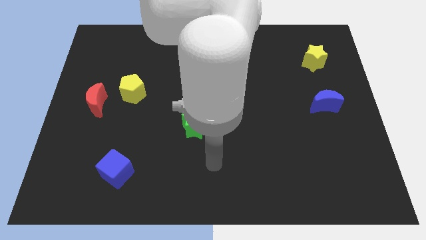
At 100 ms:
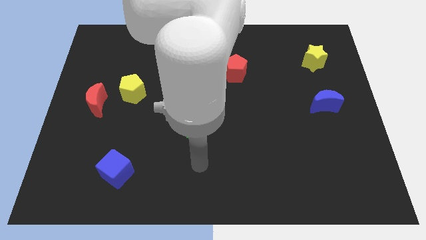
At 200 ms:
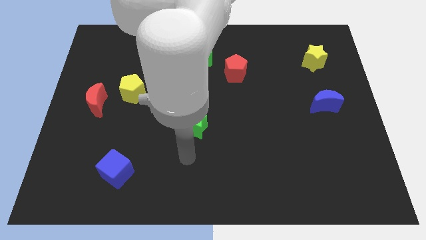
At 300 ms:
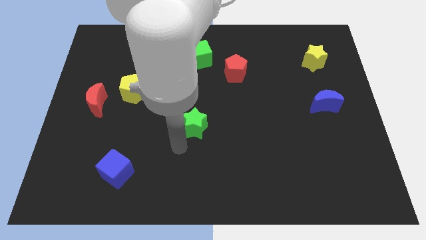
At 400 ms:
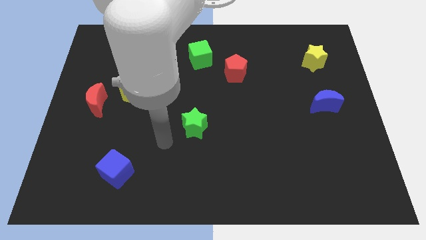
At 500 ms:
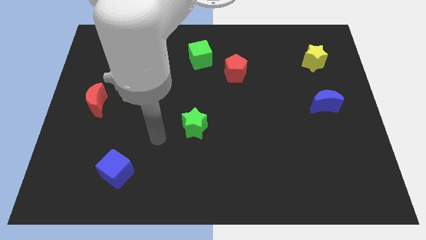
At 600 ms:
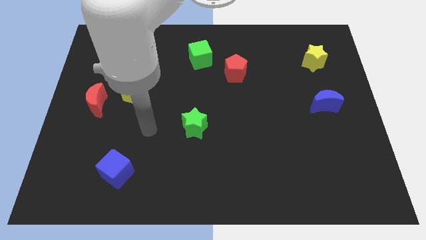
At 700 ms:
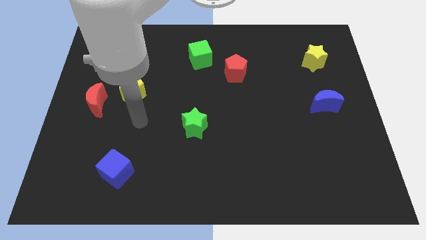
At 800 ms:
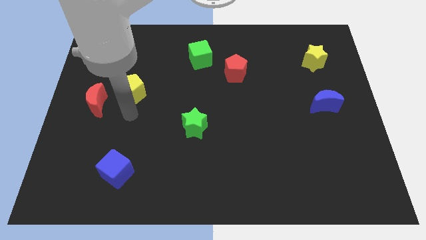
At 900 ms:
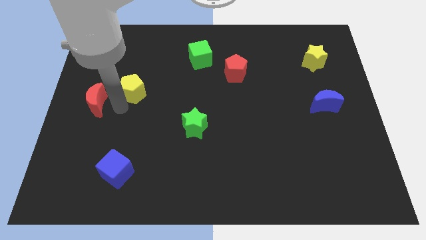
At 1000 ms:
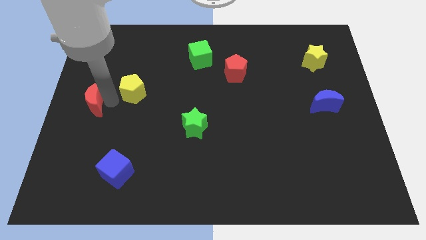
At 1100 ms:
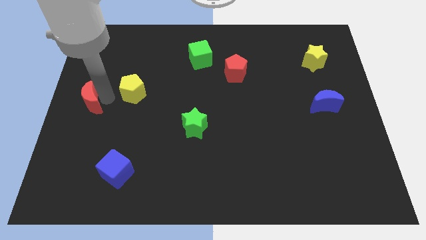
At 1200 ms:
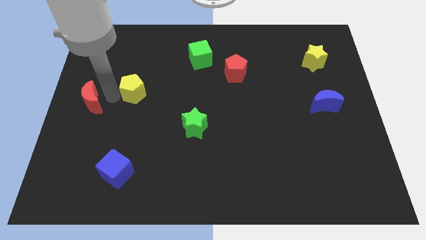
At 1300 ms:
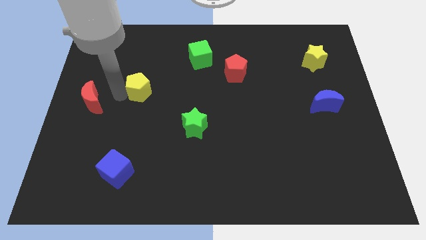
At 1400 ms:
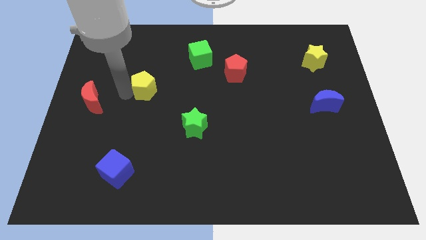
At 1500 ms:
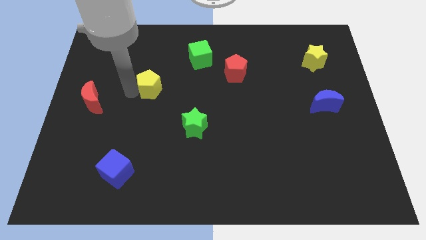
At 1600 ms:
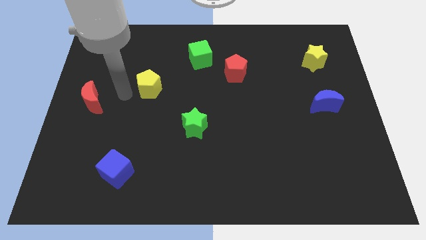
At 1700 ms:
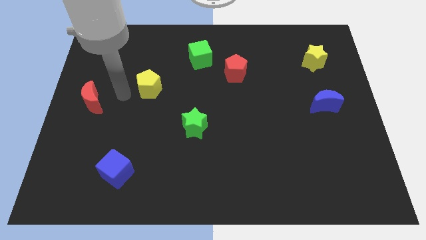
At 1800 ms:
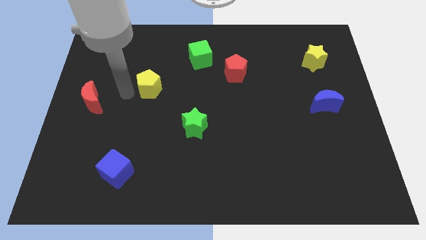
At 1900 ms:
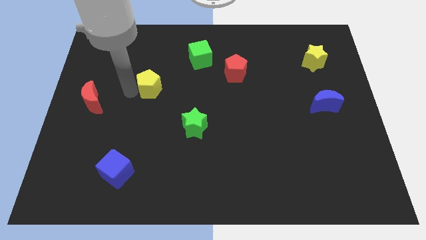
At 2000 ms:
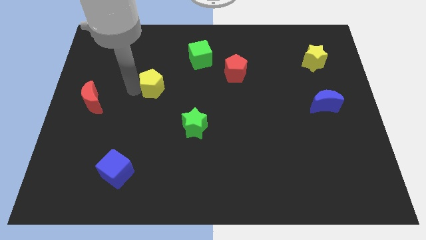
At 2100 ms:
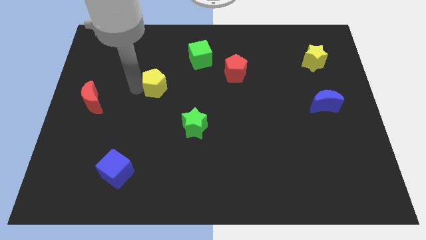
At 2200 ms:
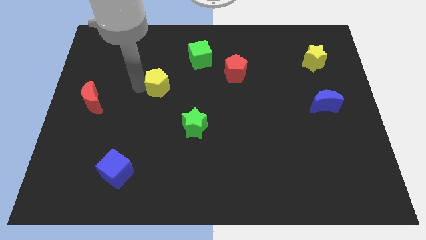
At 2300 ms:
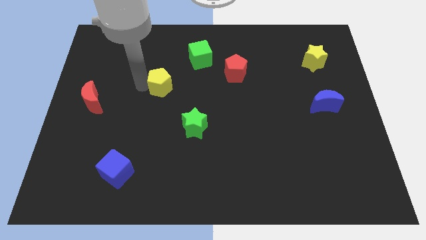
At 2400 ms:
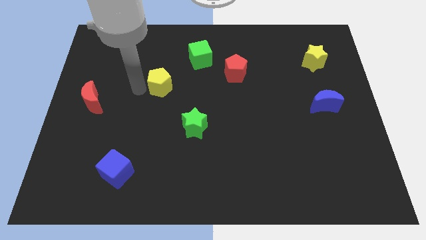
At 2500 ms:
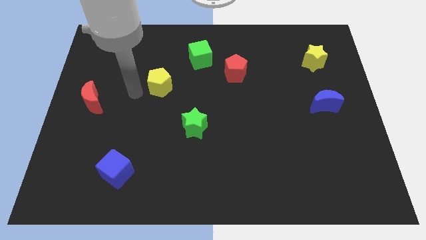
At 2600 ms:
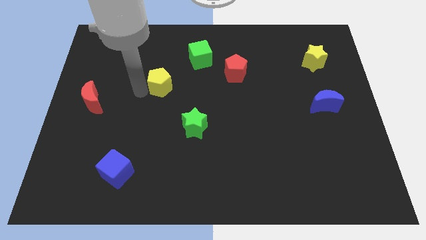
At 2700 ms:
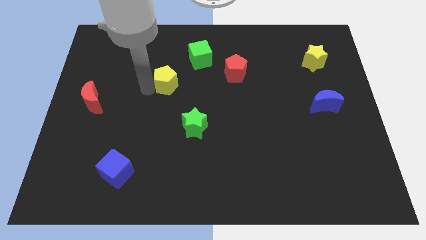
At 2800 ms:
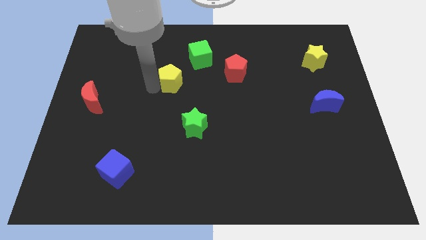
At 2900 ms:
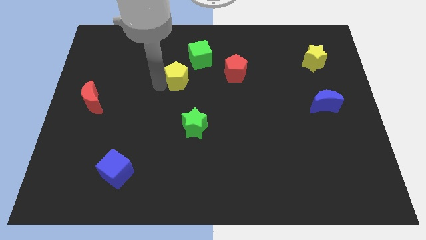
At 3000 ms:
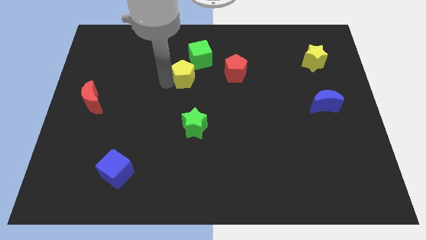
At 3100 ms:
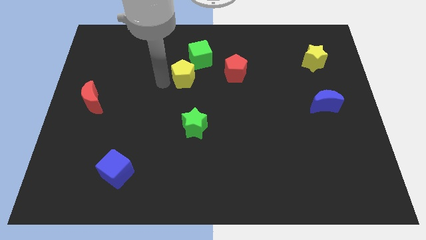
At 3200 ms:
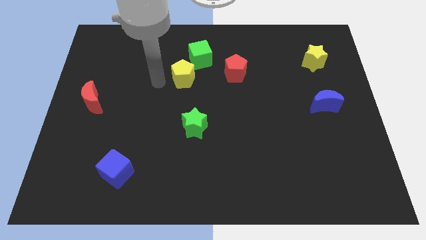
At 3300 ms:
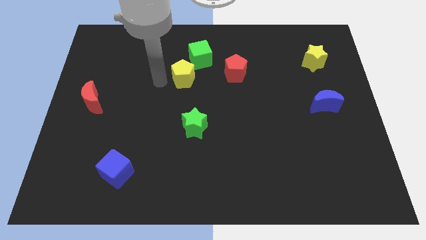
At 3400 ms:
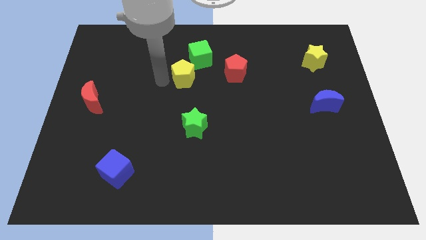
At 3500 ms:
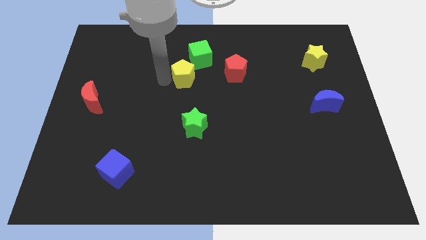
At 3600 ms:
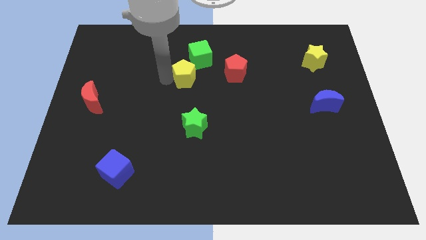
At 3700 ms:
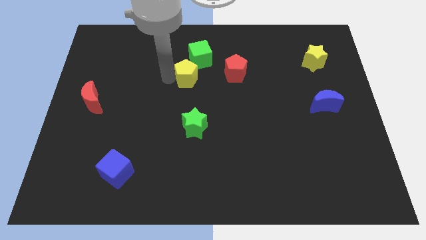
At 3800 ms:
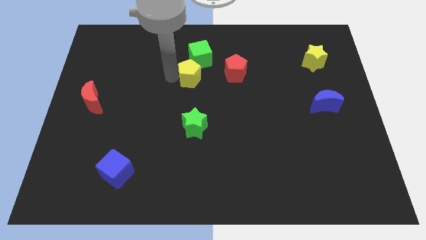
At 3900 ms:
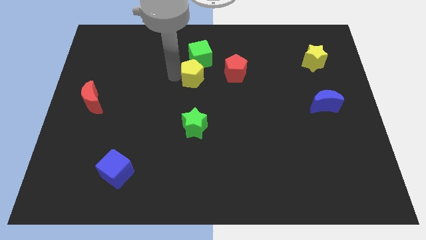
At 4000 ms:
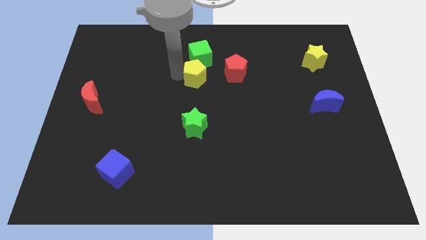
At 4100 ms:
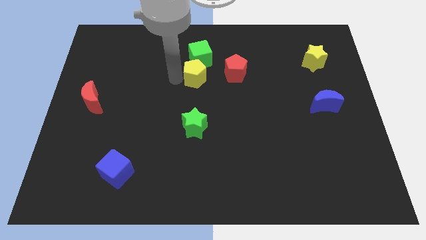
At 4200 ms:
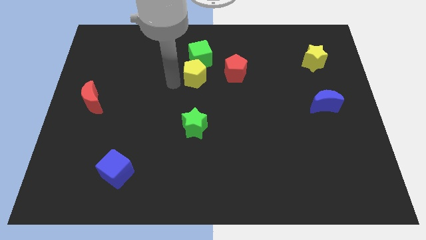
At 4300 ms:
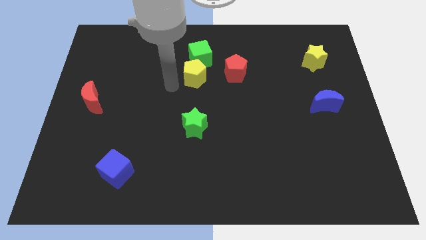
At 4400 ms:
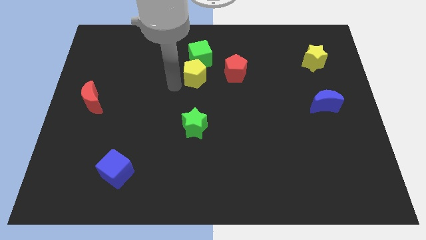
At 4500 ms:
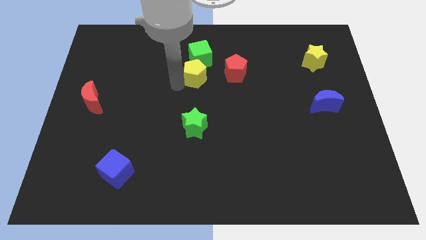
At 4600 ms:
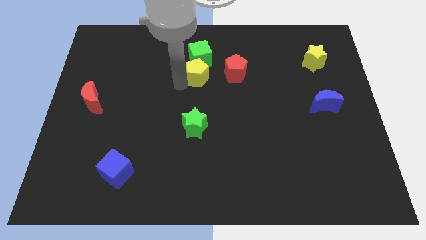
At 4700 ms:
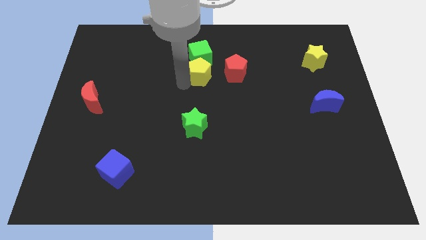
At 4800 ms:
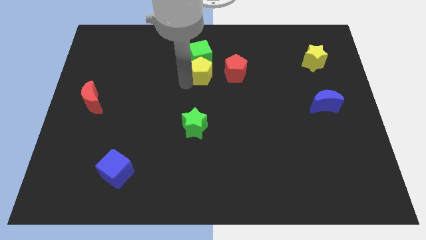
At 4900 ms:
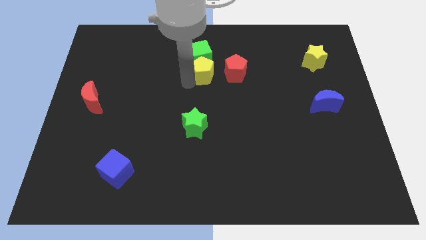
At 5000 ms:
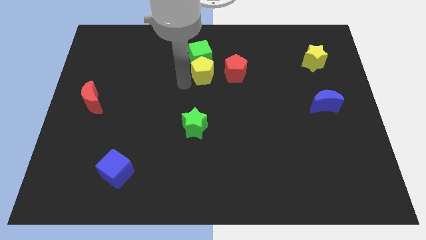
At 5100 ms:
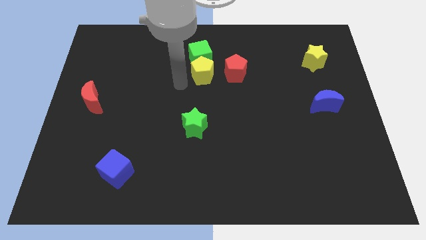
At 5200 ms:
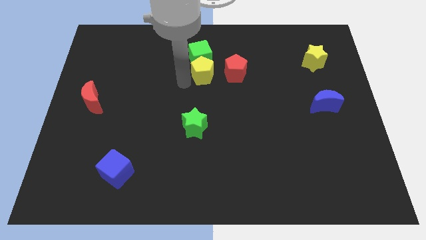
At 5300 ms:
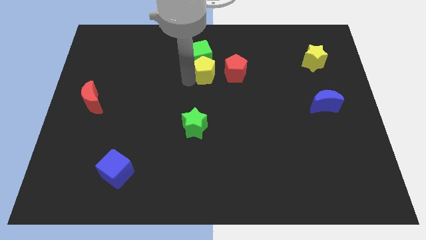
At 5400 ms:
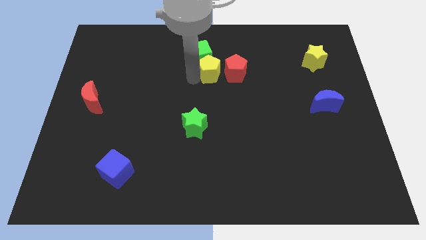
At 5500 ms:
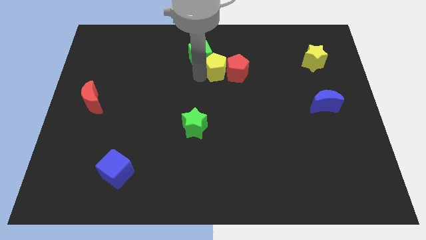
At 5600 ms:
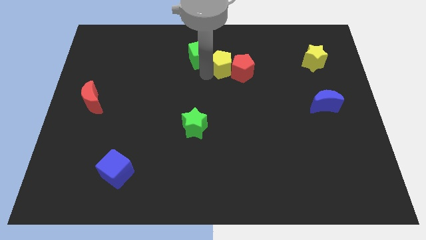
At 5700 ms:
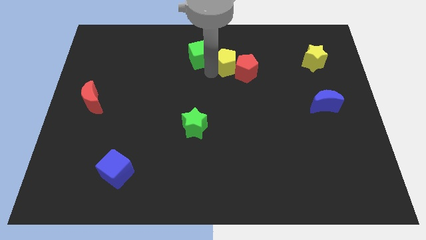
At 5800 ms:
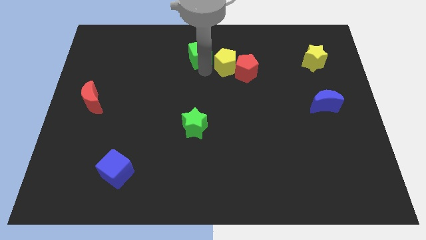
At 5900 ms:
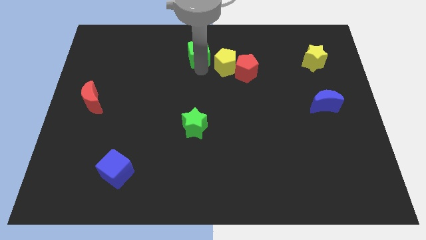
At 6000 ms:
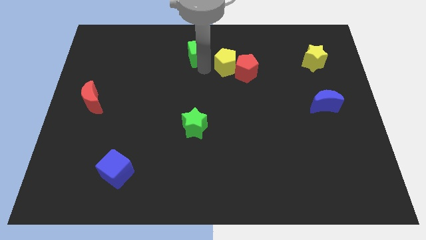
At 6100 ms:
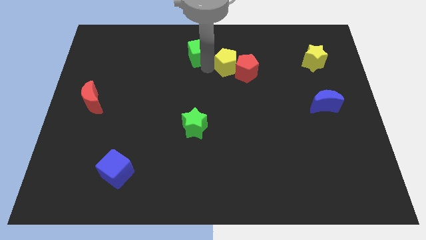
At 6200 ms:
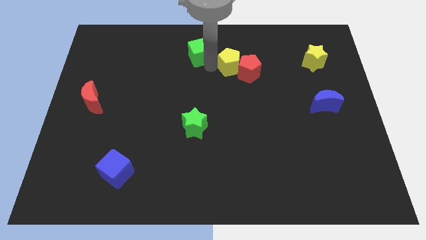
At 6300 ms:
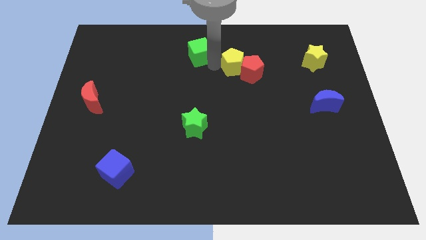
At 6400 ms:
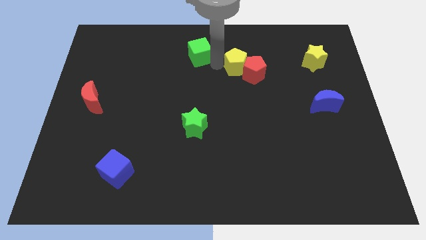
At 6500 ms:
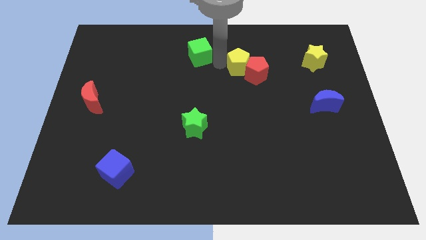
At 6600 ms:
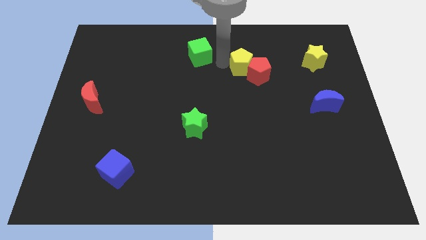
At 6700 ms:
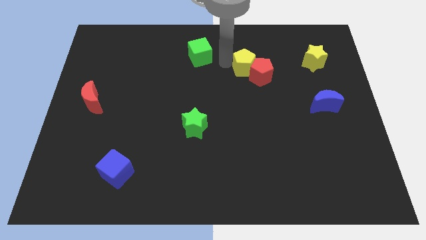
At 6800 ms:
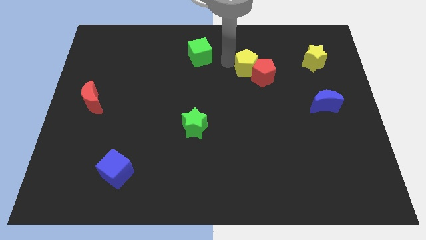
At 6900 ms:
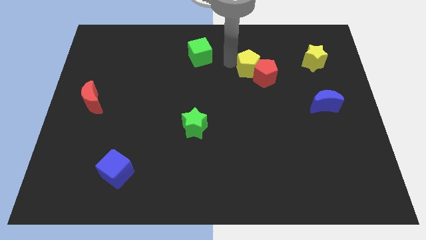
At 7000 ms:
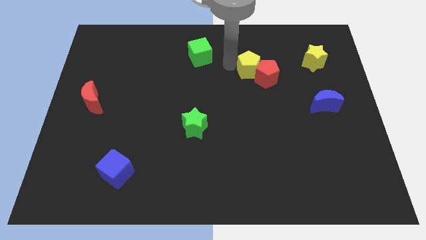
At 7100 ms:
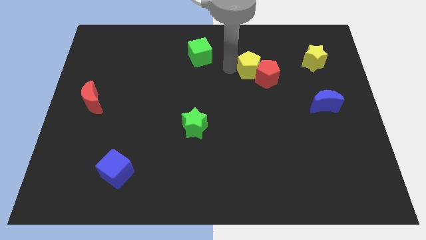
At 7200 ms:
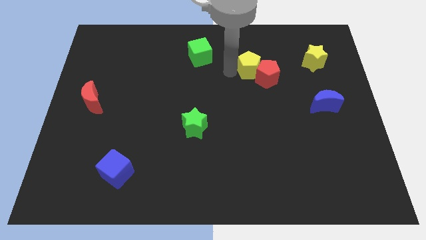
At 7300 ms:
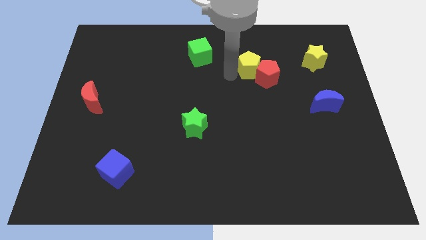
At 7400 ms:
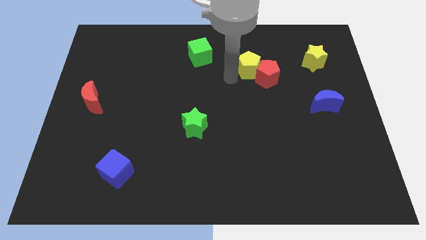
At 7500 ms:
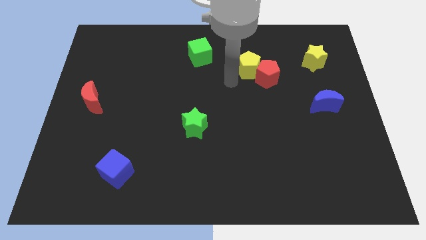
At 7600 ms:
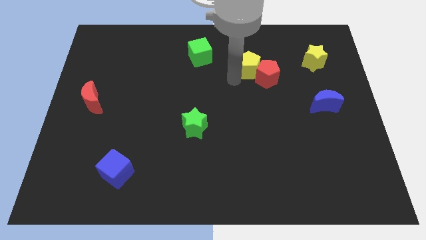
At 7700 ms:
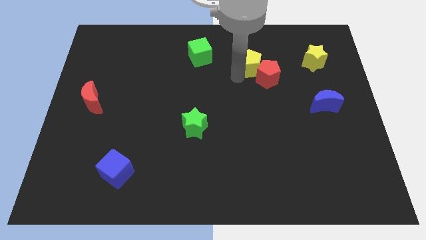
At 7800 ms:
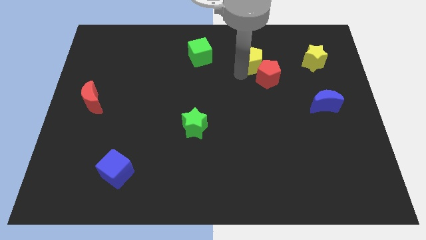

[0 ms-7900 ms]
put the yellow pentagon just left of the yellow star
